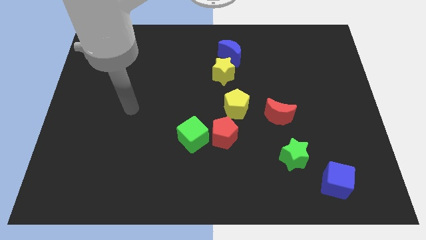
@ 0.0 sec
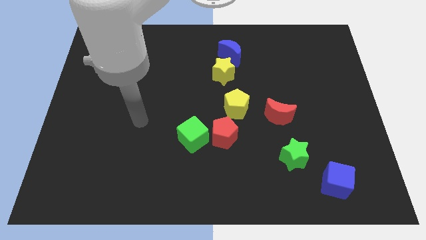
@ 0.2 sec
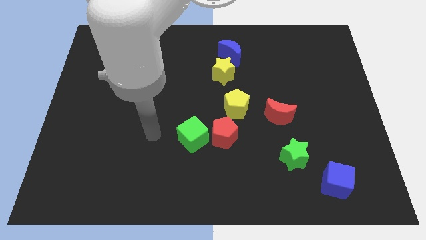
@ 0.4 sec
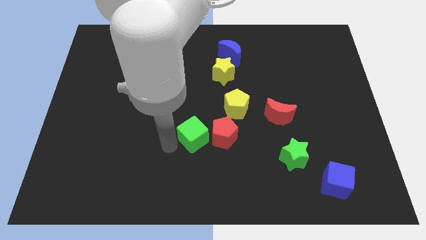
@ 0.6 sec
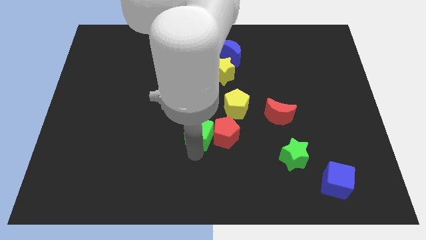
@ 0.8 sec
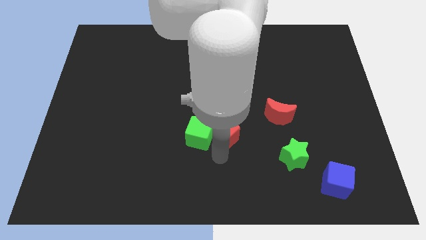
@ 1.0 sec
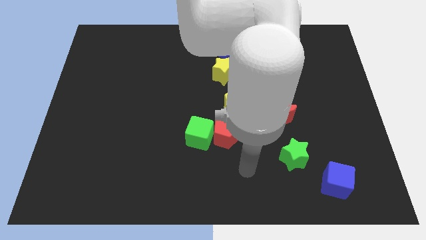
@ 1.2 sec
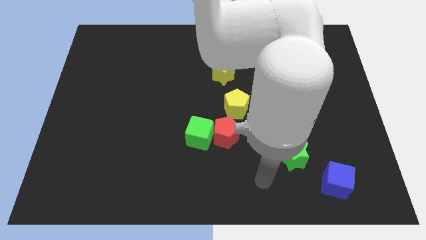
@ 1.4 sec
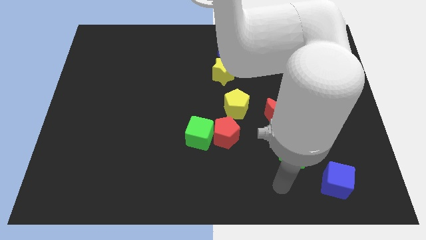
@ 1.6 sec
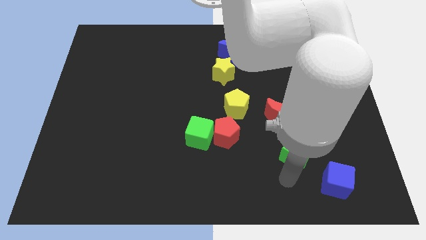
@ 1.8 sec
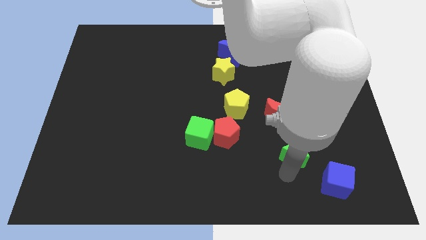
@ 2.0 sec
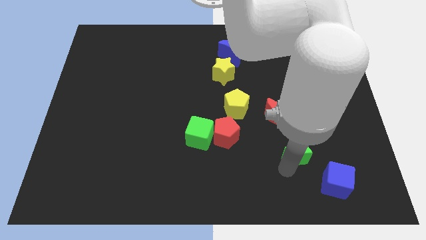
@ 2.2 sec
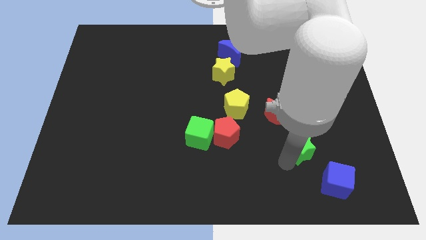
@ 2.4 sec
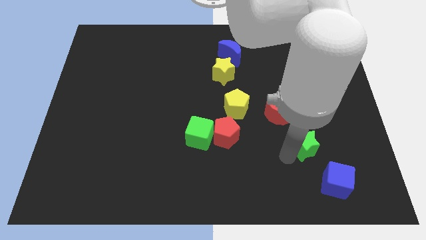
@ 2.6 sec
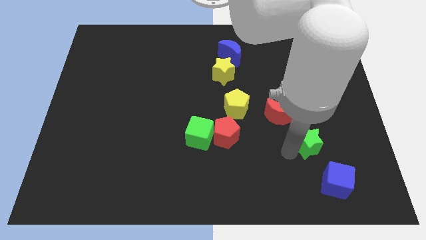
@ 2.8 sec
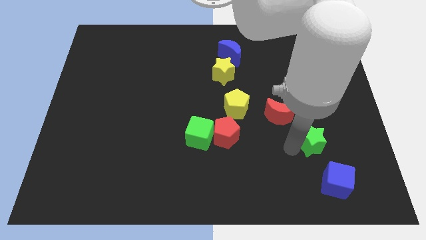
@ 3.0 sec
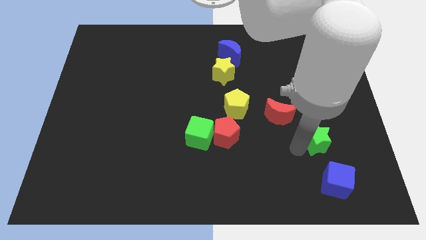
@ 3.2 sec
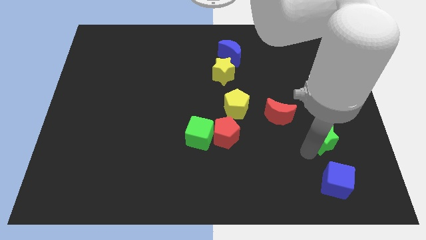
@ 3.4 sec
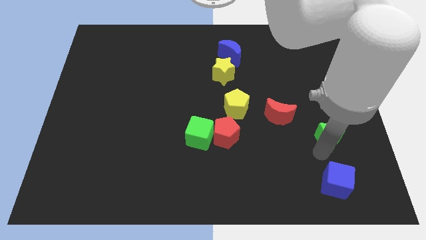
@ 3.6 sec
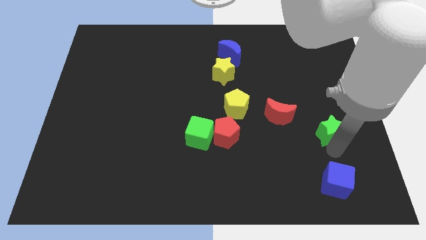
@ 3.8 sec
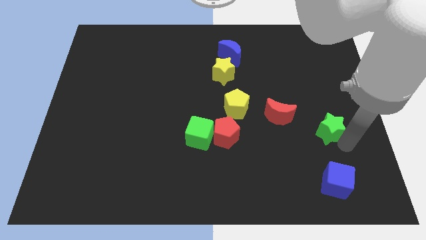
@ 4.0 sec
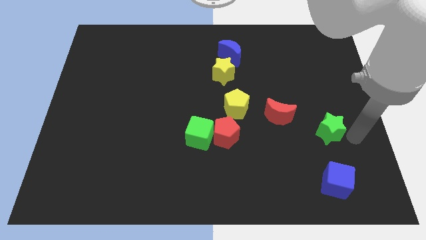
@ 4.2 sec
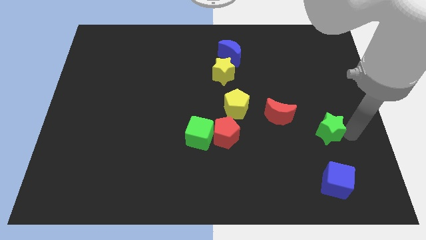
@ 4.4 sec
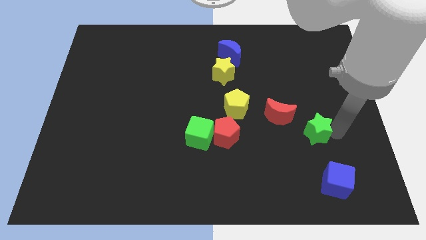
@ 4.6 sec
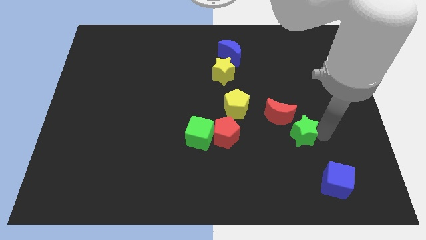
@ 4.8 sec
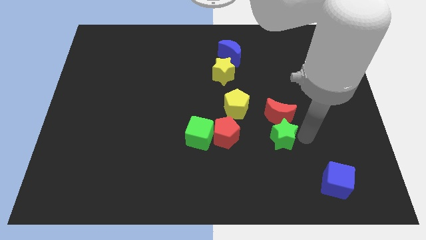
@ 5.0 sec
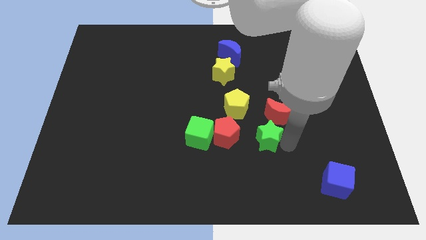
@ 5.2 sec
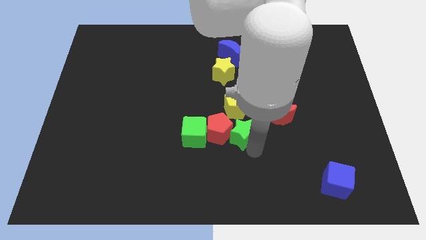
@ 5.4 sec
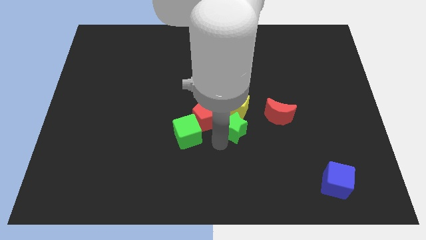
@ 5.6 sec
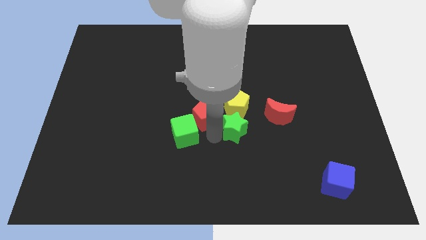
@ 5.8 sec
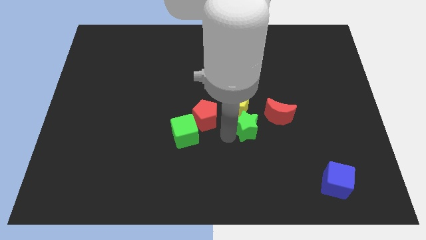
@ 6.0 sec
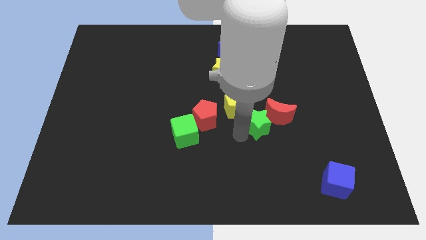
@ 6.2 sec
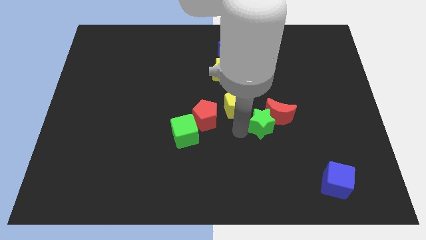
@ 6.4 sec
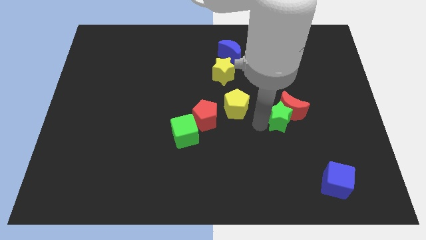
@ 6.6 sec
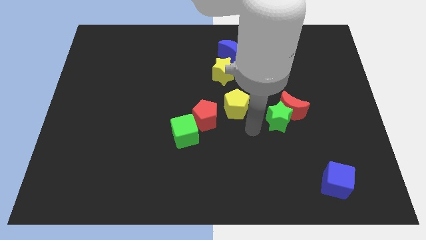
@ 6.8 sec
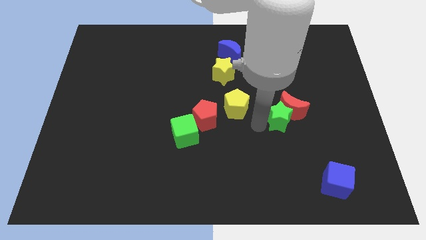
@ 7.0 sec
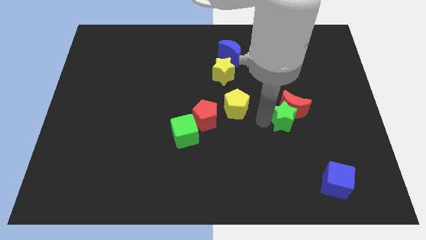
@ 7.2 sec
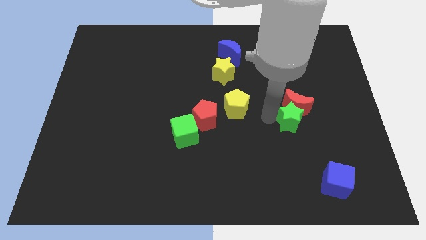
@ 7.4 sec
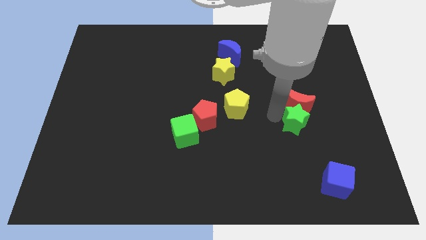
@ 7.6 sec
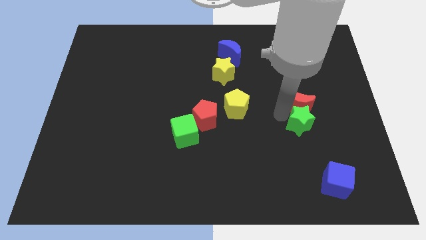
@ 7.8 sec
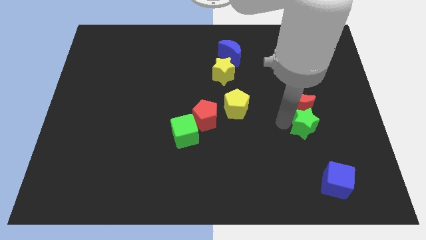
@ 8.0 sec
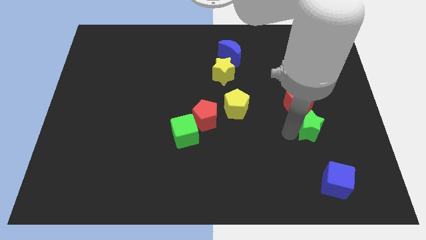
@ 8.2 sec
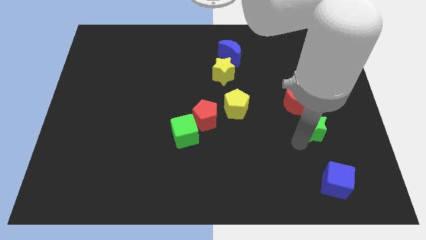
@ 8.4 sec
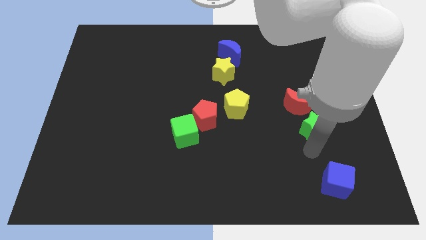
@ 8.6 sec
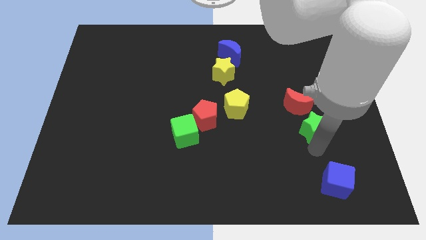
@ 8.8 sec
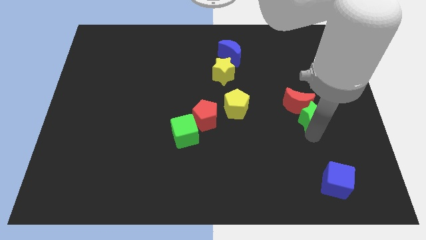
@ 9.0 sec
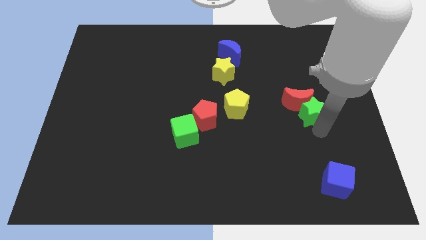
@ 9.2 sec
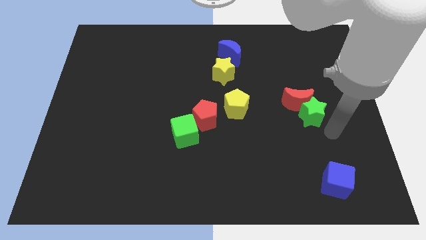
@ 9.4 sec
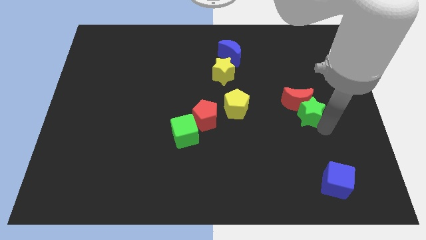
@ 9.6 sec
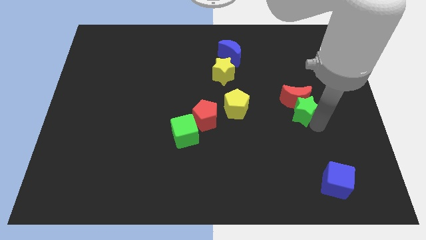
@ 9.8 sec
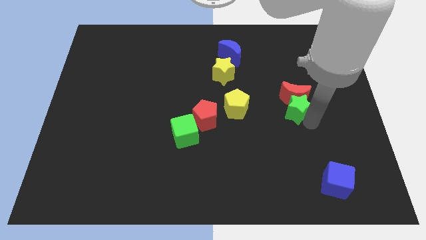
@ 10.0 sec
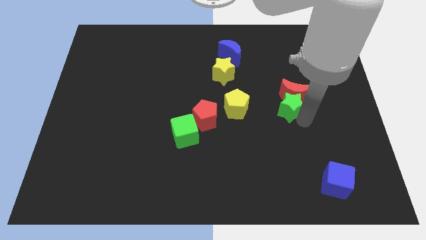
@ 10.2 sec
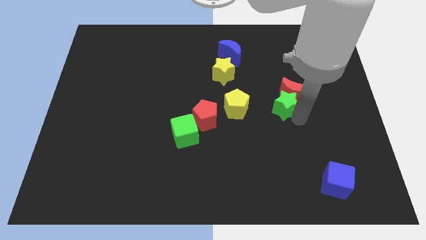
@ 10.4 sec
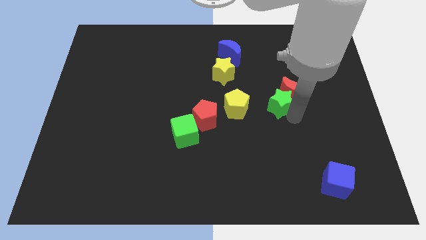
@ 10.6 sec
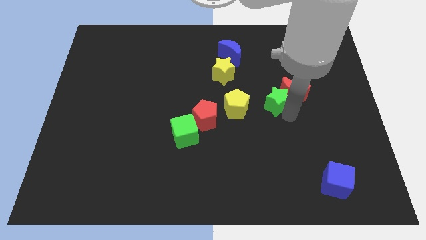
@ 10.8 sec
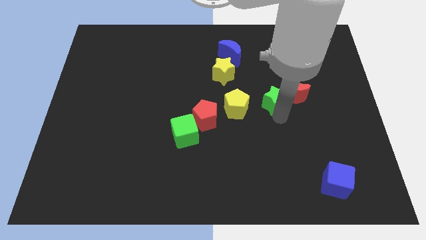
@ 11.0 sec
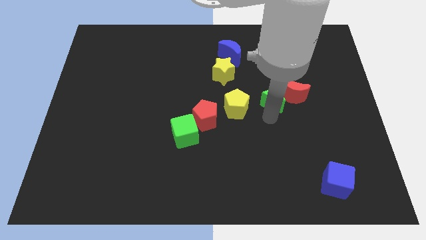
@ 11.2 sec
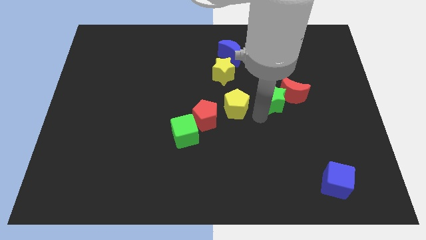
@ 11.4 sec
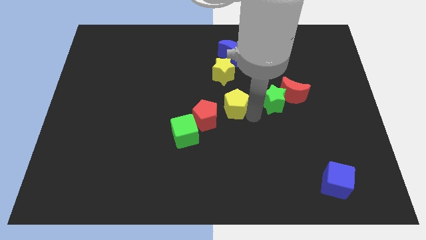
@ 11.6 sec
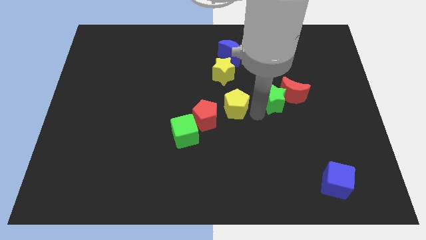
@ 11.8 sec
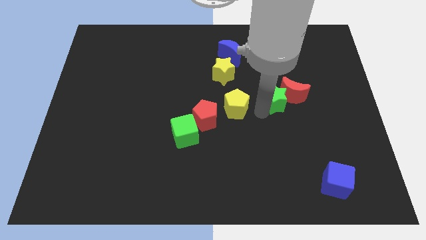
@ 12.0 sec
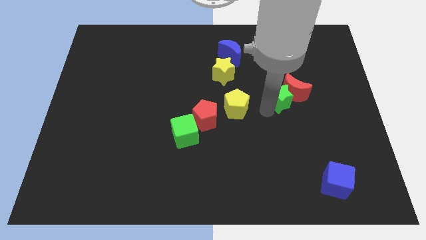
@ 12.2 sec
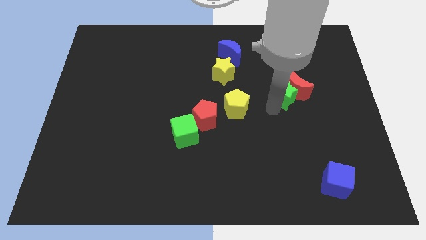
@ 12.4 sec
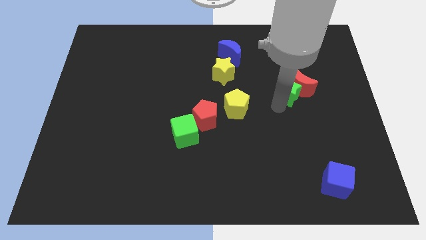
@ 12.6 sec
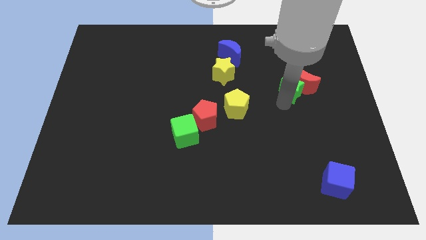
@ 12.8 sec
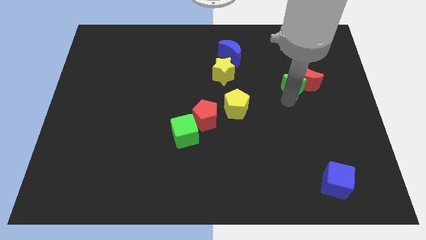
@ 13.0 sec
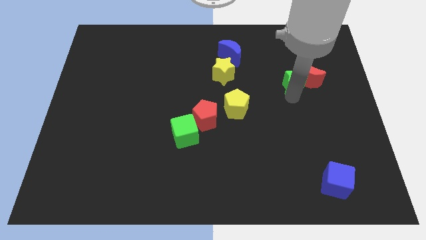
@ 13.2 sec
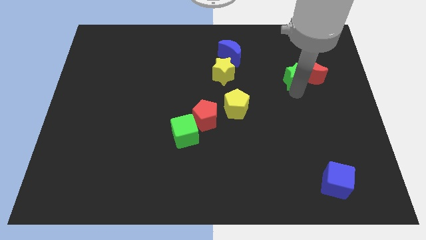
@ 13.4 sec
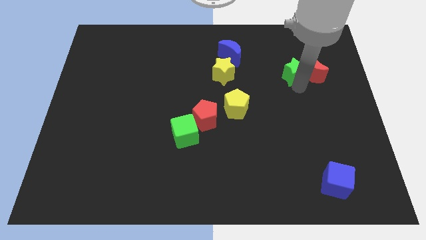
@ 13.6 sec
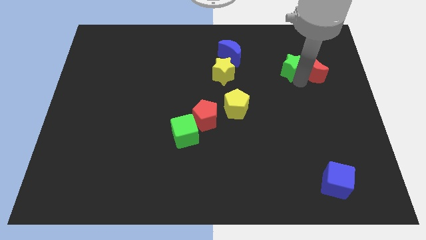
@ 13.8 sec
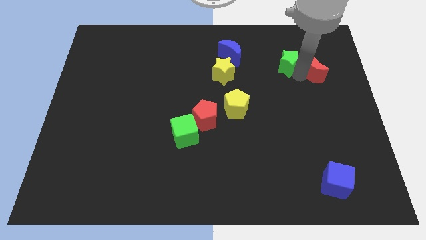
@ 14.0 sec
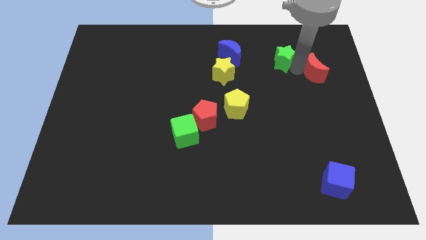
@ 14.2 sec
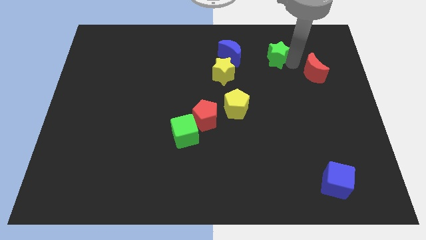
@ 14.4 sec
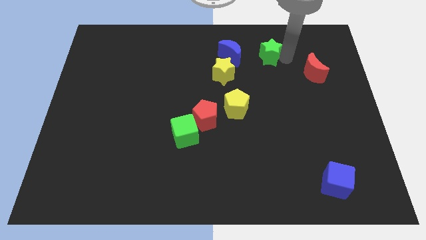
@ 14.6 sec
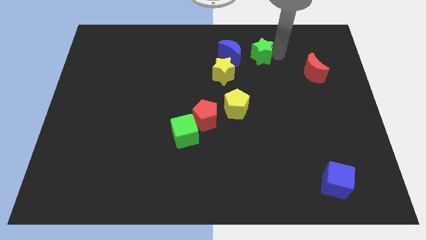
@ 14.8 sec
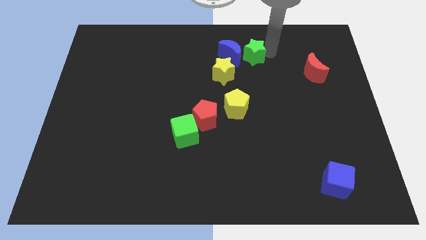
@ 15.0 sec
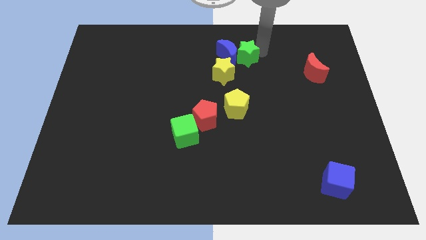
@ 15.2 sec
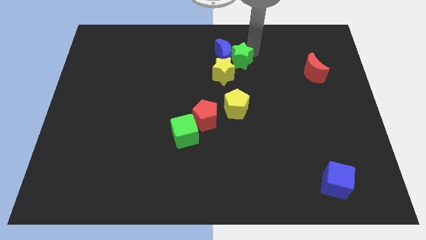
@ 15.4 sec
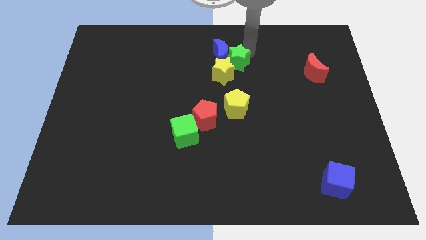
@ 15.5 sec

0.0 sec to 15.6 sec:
move the green star towards the yellow star

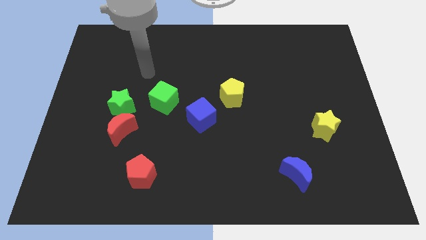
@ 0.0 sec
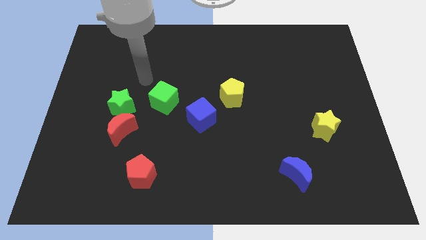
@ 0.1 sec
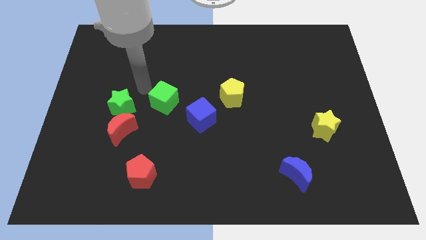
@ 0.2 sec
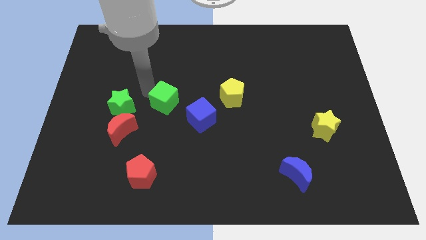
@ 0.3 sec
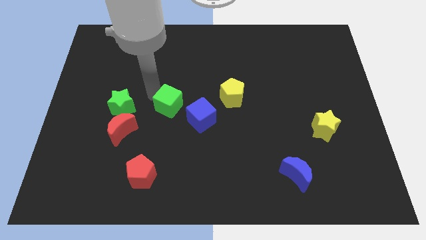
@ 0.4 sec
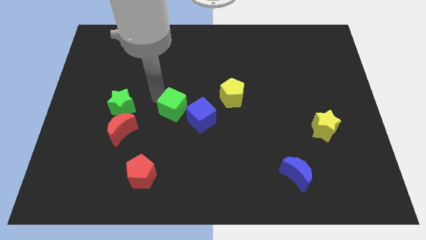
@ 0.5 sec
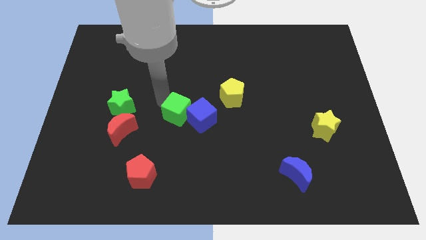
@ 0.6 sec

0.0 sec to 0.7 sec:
slide the green cube to the blue cube
